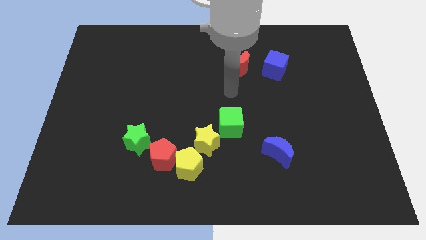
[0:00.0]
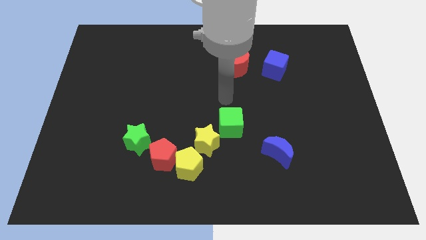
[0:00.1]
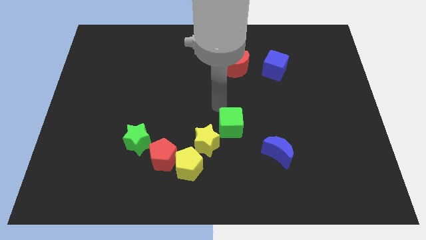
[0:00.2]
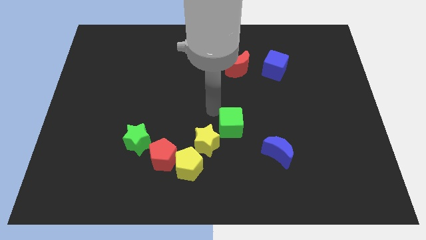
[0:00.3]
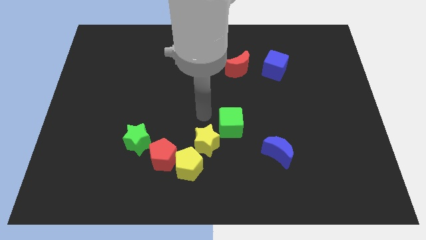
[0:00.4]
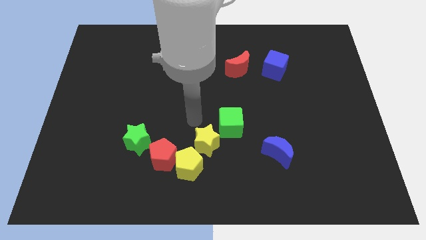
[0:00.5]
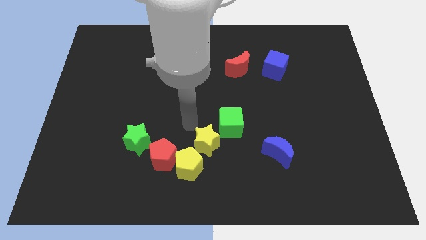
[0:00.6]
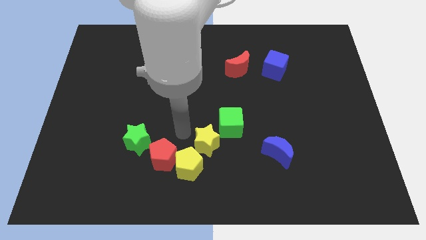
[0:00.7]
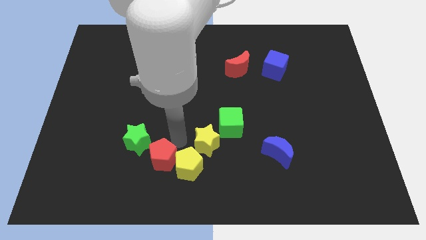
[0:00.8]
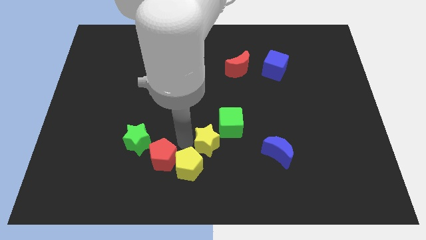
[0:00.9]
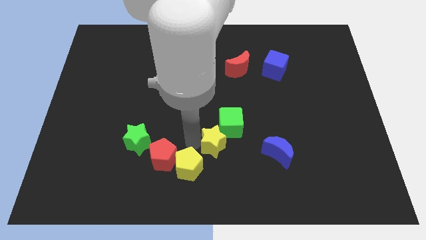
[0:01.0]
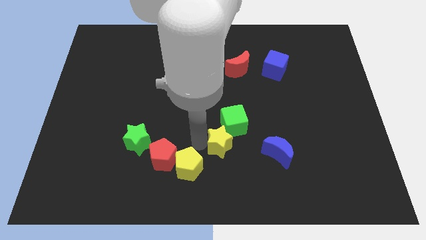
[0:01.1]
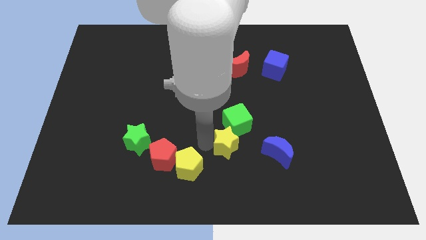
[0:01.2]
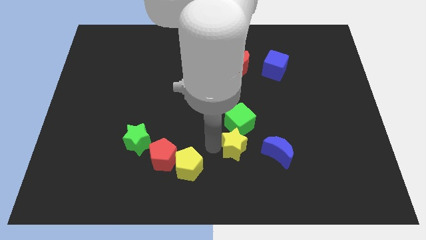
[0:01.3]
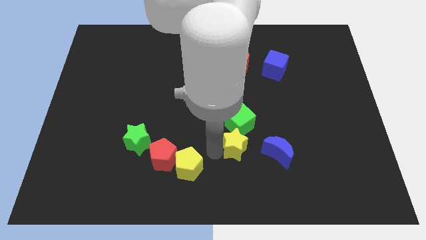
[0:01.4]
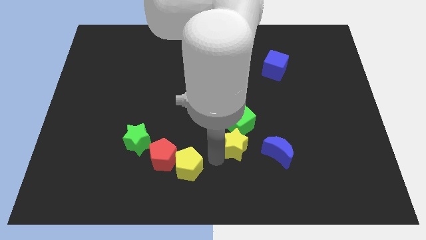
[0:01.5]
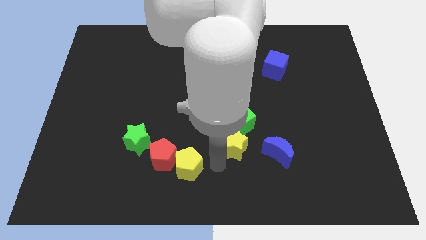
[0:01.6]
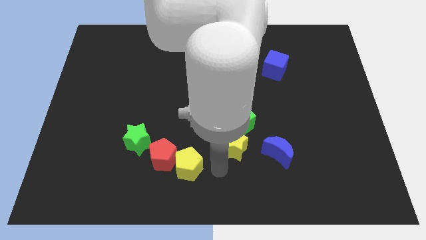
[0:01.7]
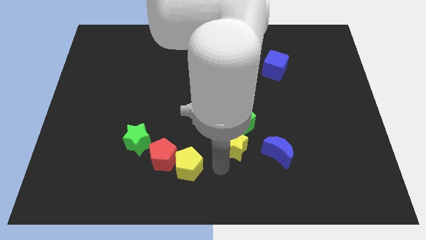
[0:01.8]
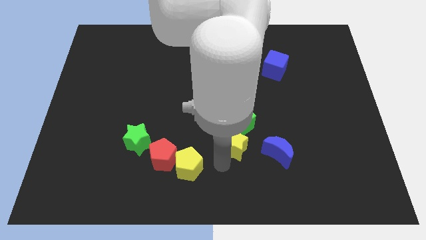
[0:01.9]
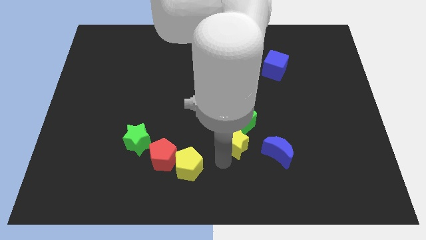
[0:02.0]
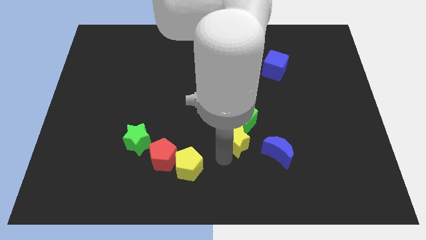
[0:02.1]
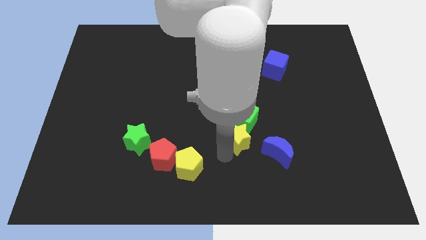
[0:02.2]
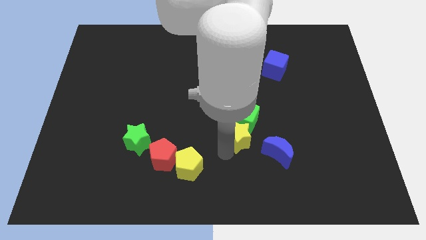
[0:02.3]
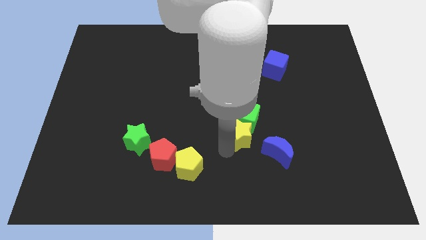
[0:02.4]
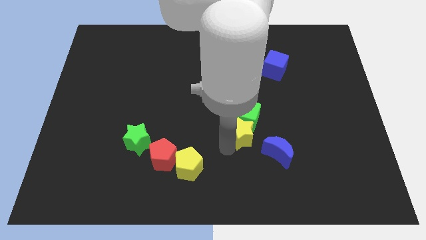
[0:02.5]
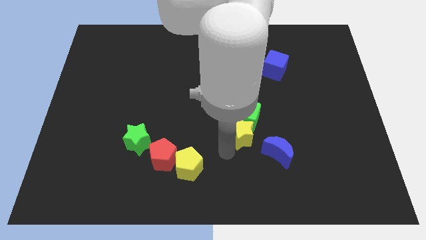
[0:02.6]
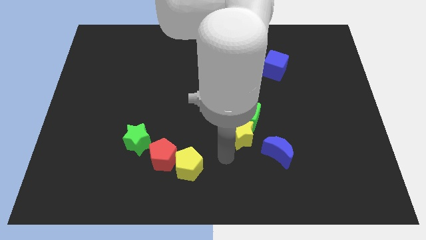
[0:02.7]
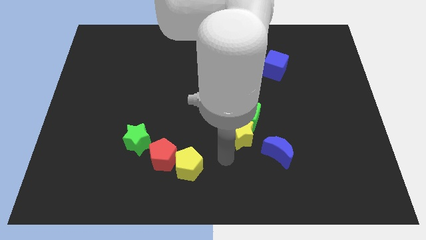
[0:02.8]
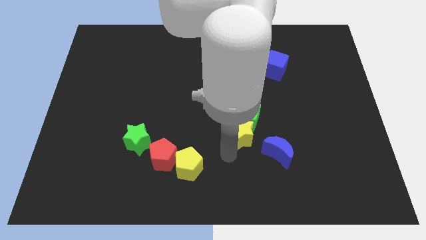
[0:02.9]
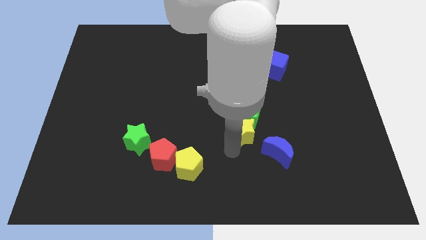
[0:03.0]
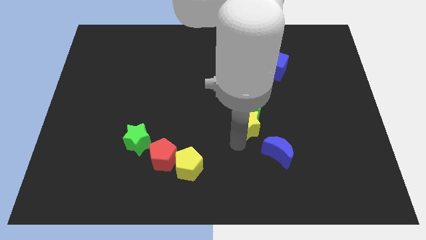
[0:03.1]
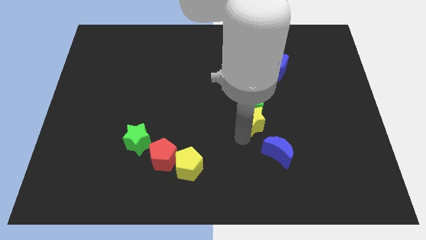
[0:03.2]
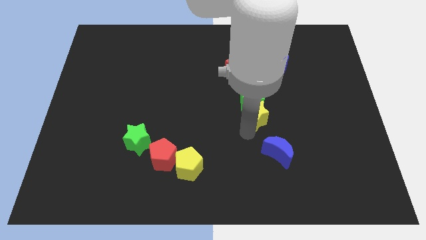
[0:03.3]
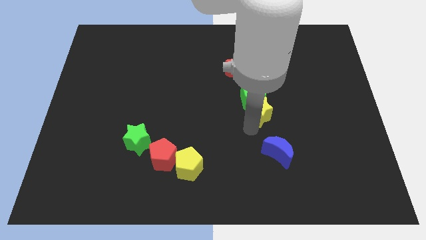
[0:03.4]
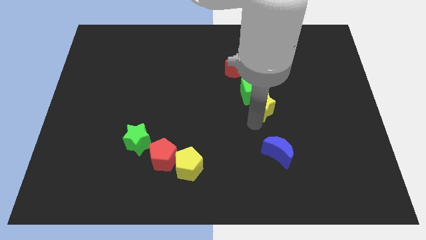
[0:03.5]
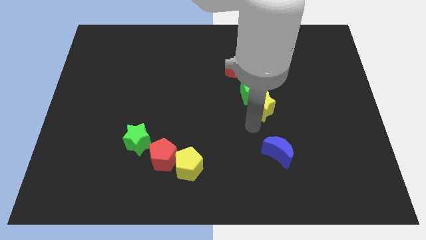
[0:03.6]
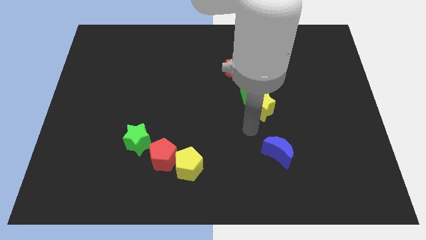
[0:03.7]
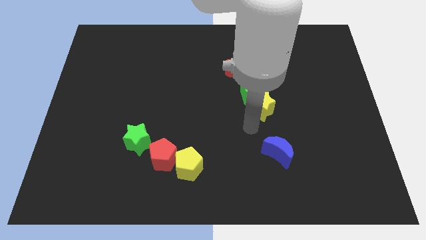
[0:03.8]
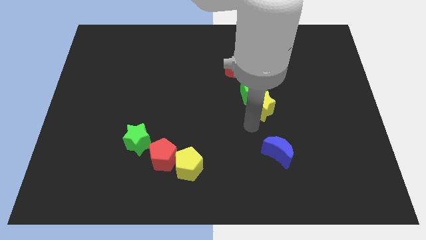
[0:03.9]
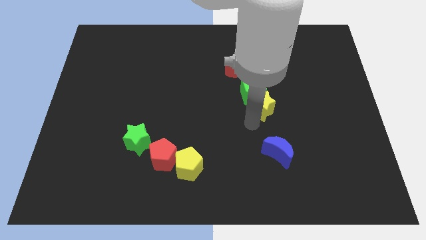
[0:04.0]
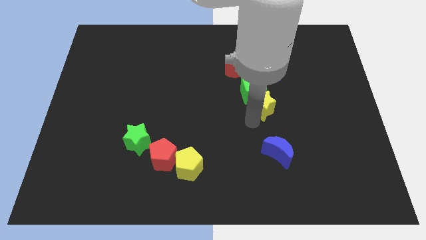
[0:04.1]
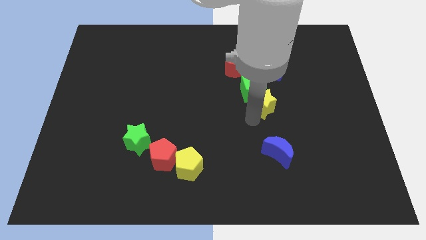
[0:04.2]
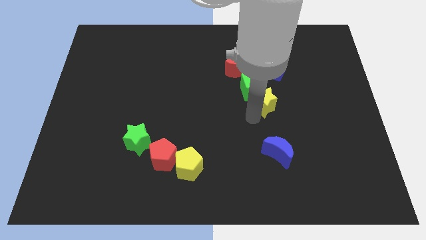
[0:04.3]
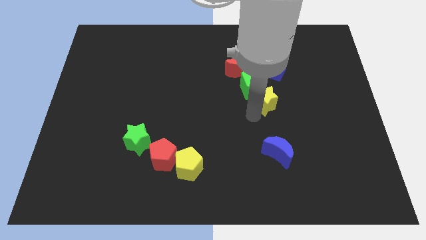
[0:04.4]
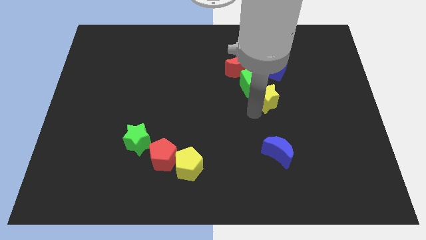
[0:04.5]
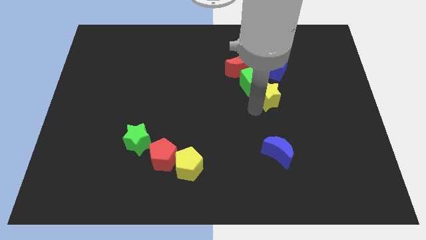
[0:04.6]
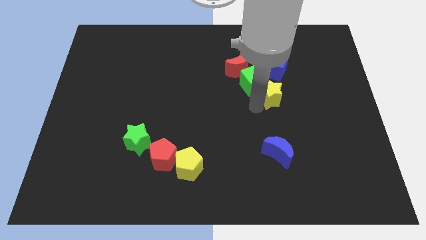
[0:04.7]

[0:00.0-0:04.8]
slide the yellow star diagonally upwards and right

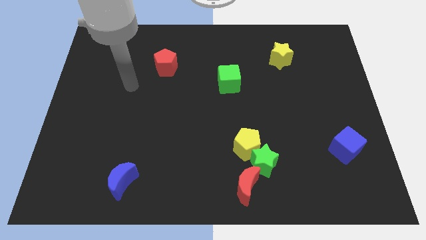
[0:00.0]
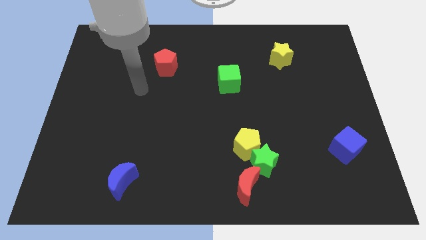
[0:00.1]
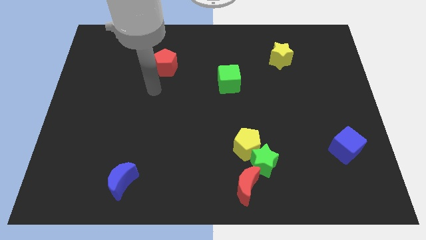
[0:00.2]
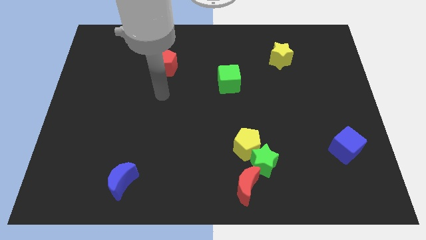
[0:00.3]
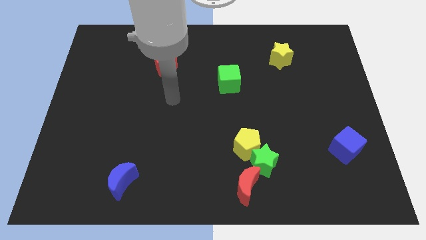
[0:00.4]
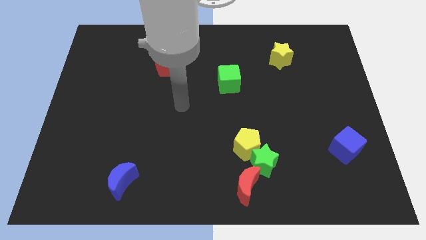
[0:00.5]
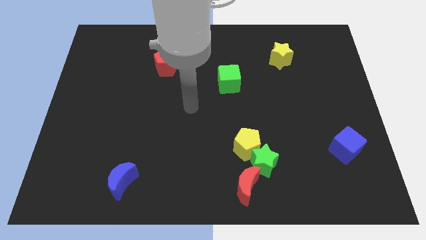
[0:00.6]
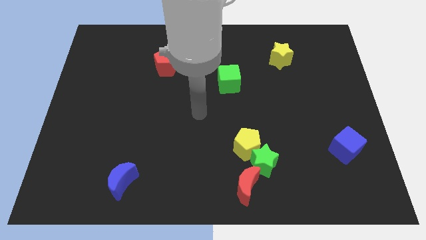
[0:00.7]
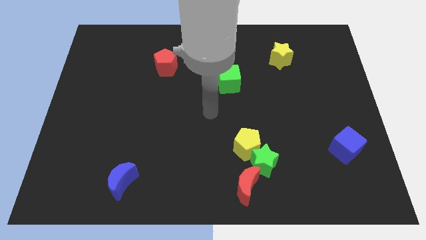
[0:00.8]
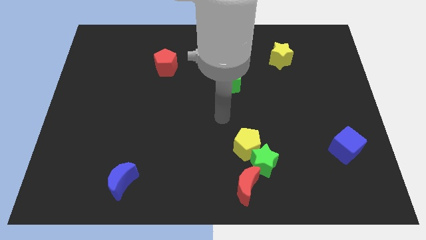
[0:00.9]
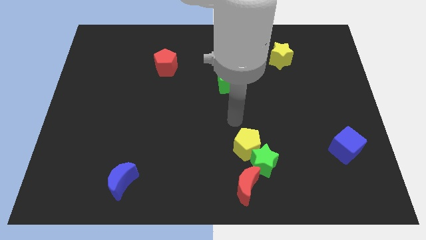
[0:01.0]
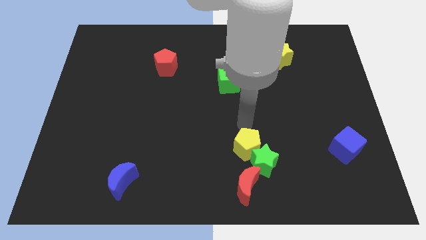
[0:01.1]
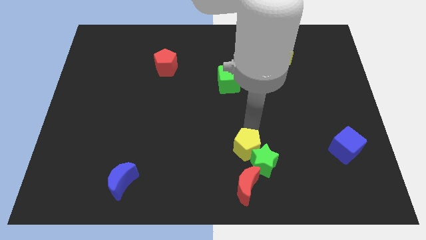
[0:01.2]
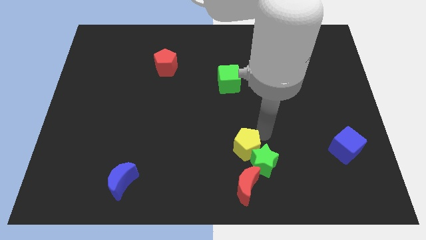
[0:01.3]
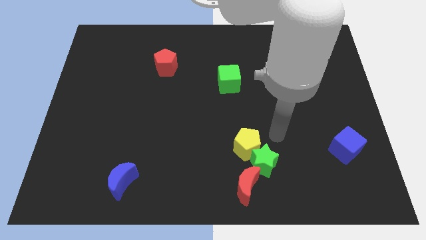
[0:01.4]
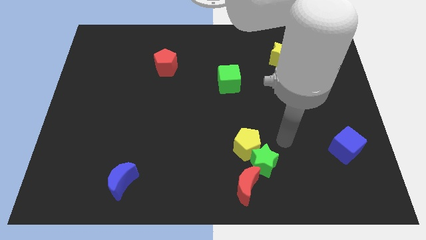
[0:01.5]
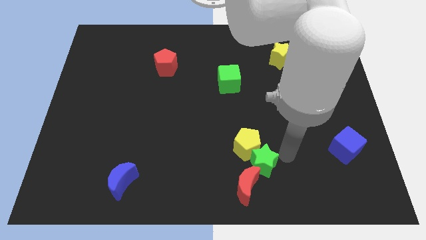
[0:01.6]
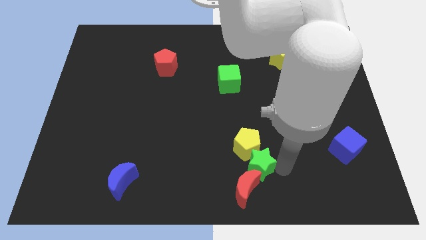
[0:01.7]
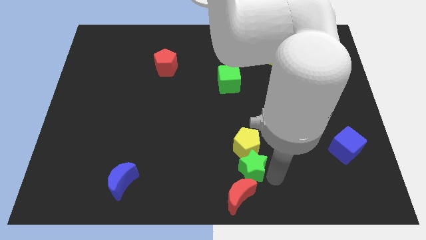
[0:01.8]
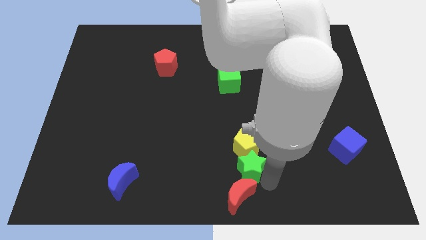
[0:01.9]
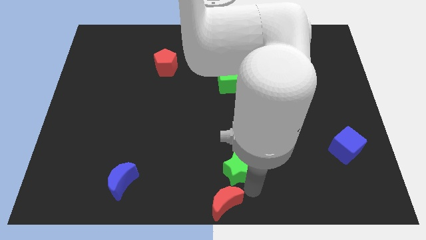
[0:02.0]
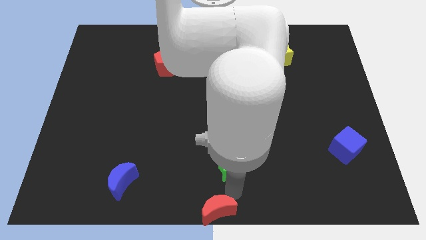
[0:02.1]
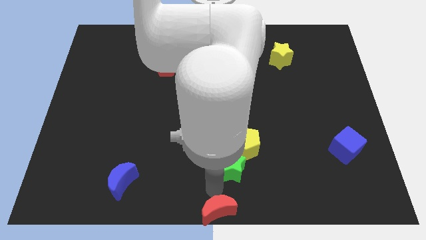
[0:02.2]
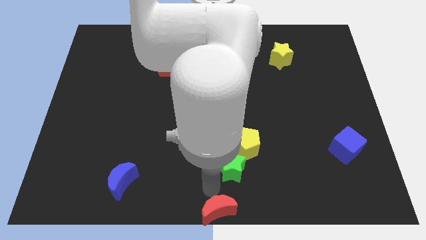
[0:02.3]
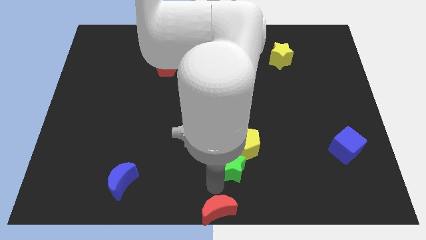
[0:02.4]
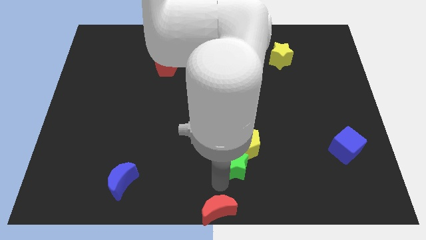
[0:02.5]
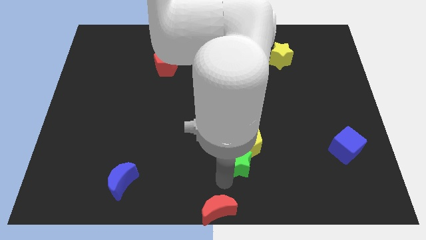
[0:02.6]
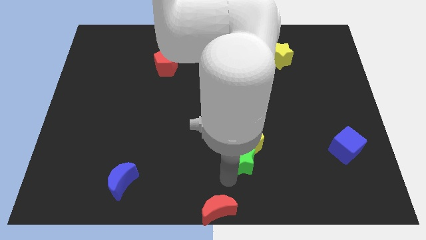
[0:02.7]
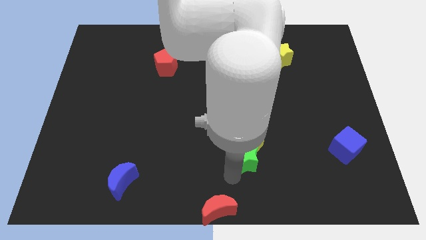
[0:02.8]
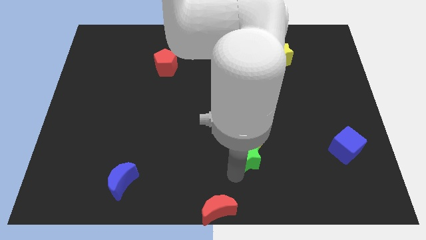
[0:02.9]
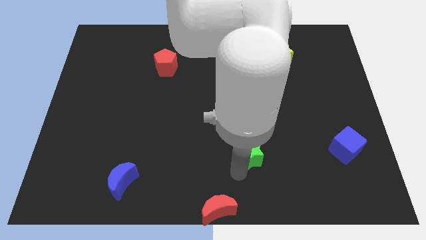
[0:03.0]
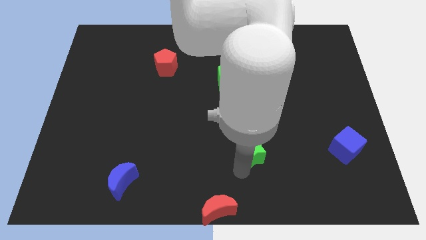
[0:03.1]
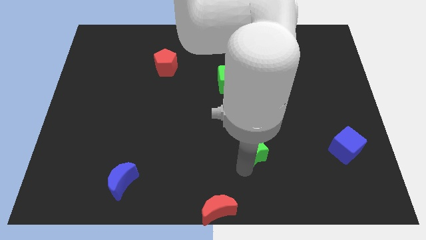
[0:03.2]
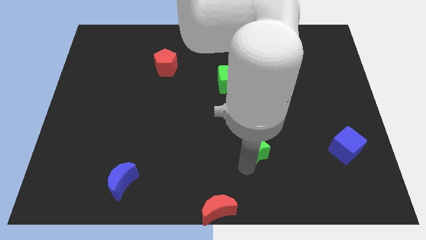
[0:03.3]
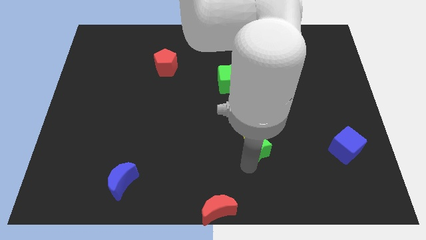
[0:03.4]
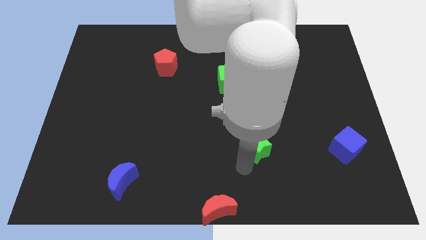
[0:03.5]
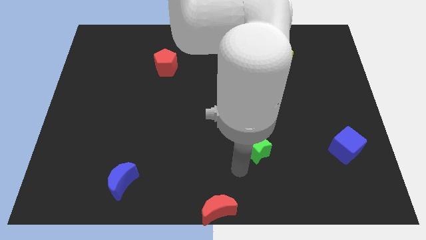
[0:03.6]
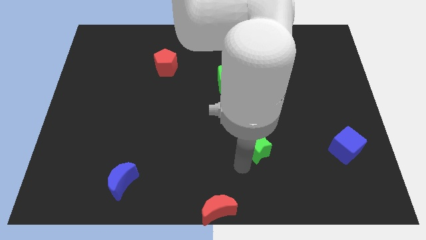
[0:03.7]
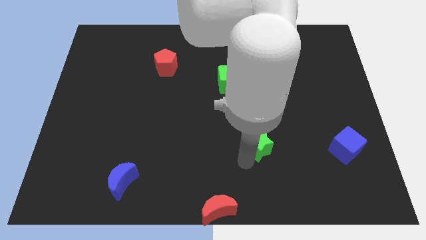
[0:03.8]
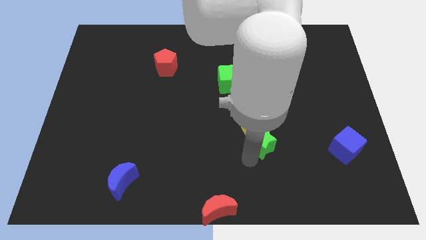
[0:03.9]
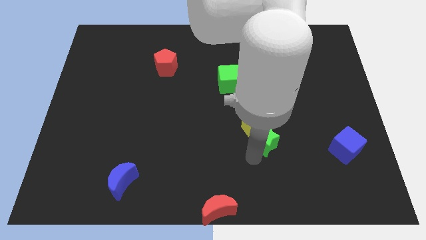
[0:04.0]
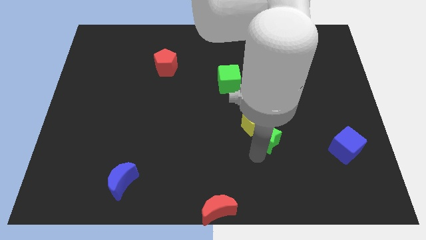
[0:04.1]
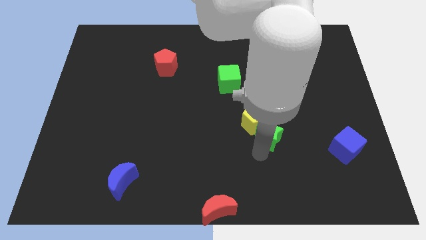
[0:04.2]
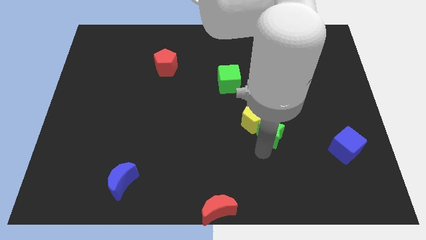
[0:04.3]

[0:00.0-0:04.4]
push the green star upwards somewhat
